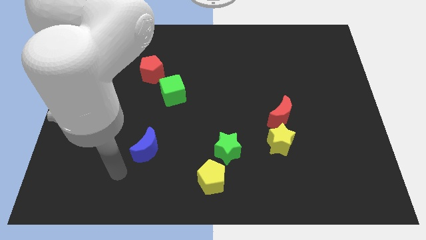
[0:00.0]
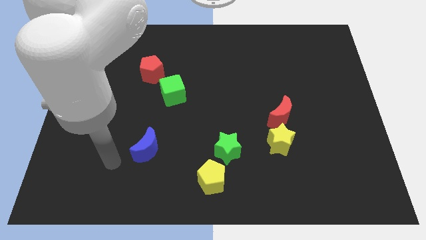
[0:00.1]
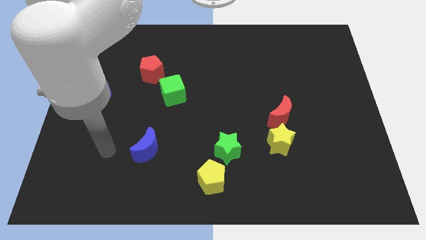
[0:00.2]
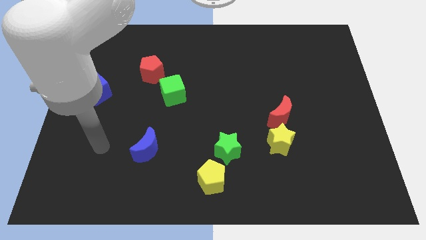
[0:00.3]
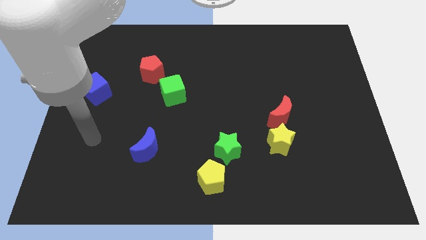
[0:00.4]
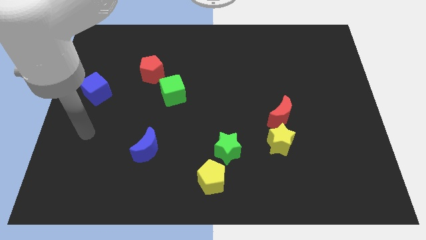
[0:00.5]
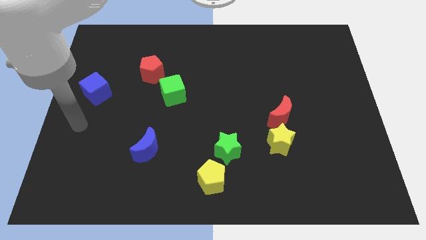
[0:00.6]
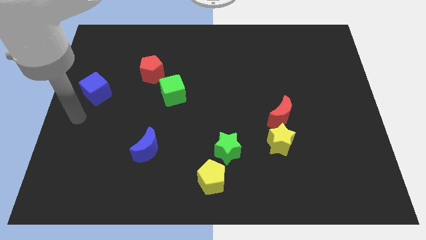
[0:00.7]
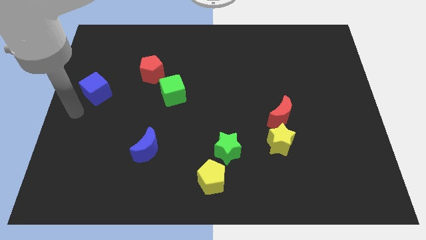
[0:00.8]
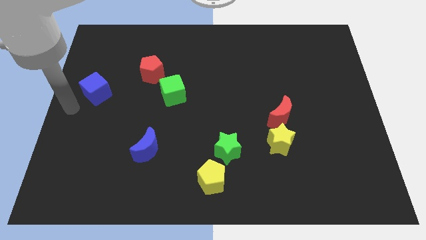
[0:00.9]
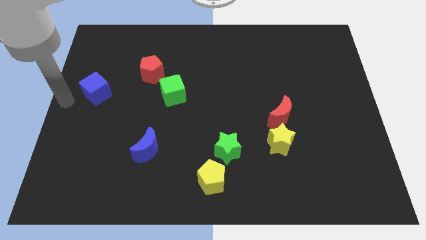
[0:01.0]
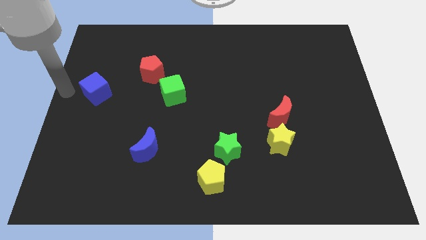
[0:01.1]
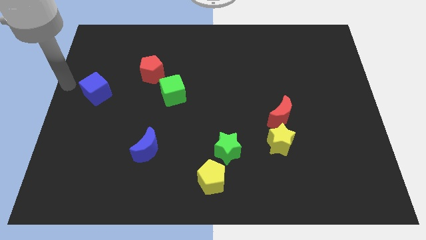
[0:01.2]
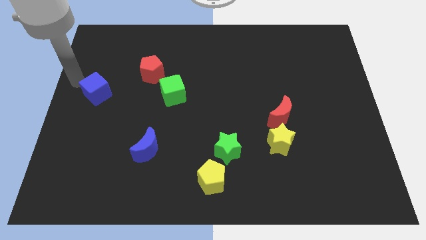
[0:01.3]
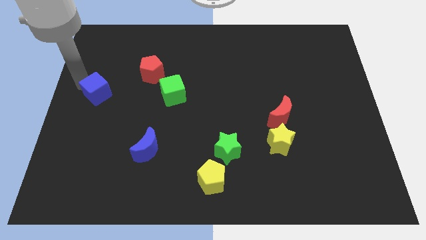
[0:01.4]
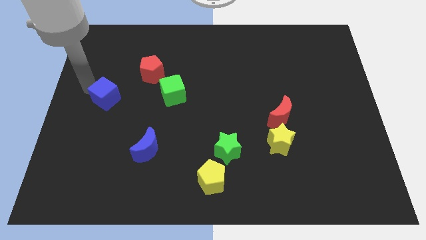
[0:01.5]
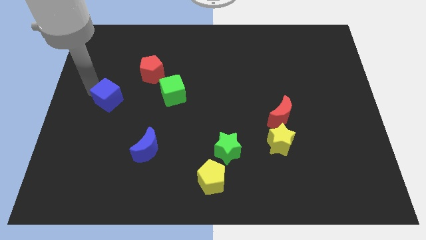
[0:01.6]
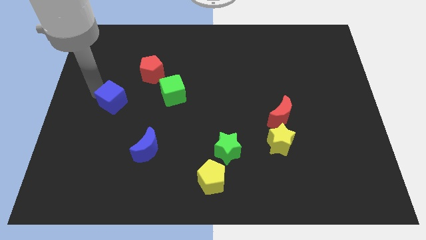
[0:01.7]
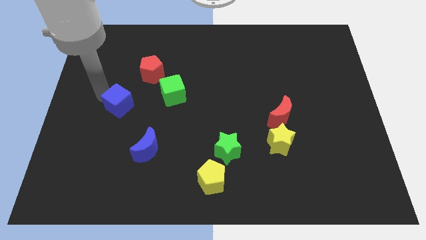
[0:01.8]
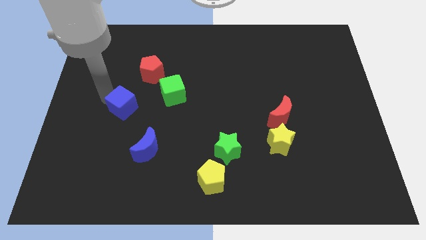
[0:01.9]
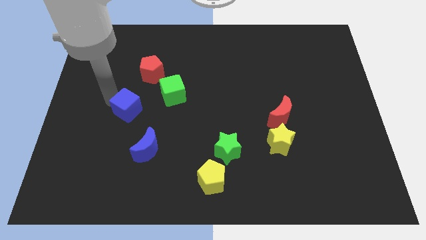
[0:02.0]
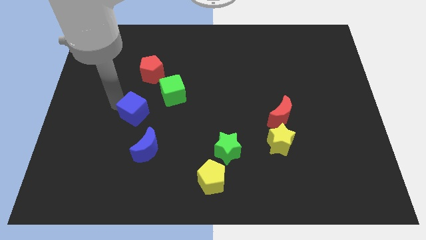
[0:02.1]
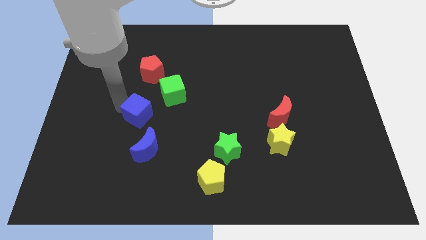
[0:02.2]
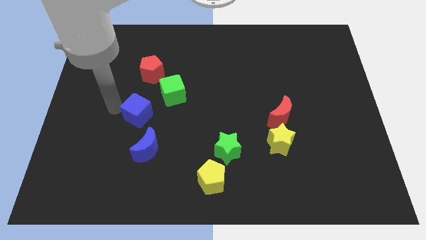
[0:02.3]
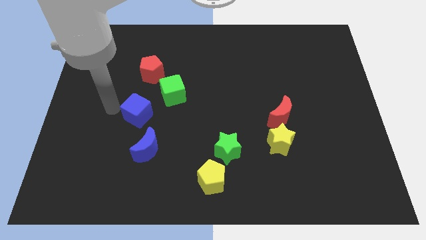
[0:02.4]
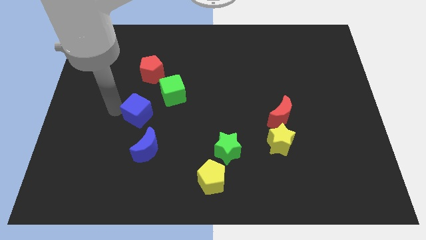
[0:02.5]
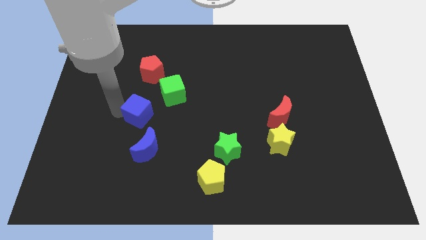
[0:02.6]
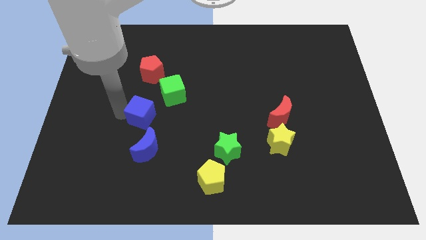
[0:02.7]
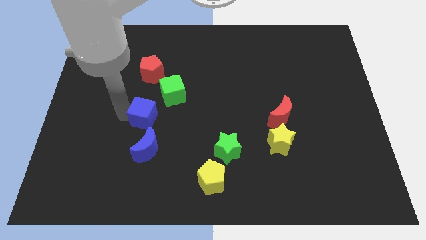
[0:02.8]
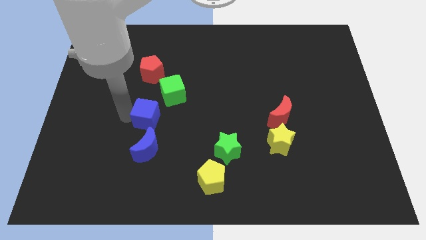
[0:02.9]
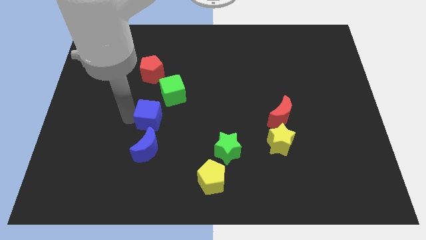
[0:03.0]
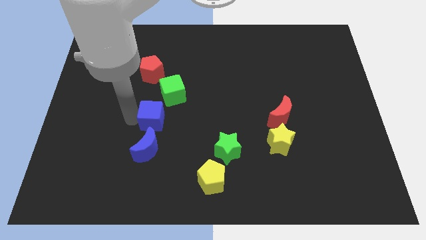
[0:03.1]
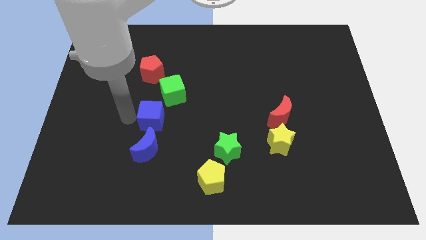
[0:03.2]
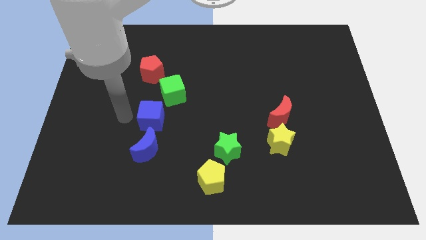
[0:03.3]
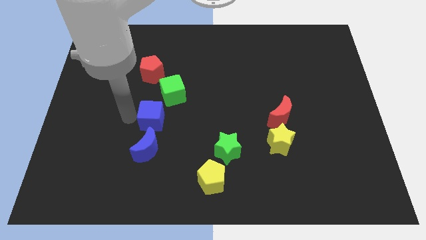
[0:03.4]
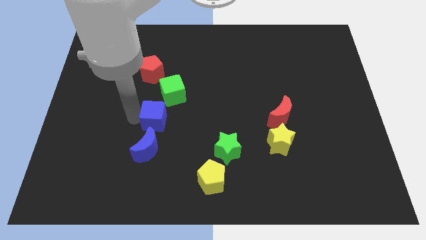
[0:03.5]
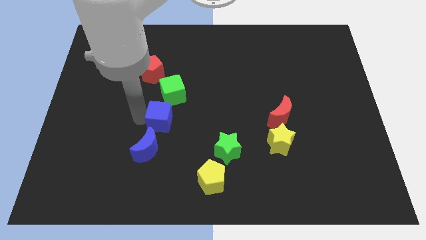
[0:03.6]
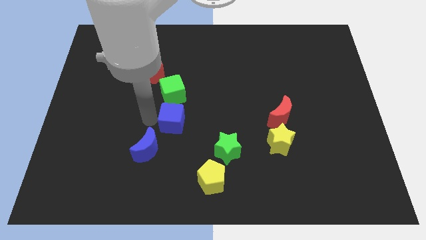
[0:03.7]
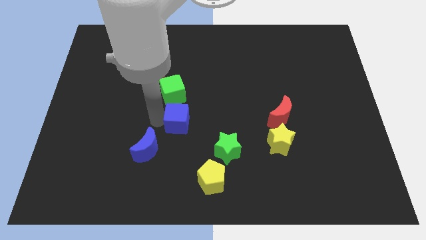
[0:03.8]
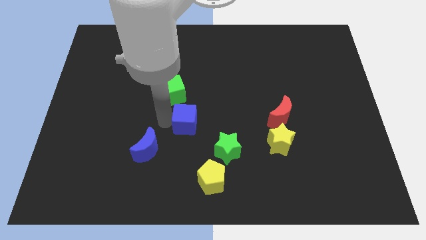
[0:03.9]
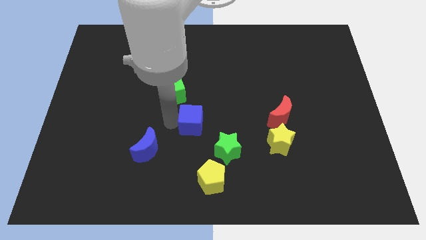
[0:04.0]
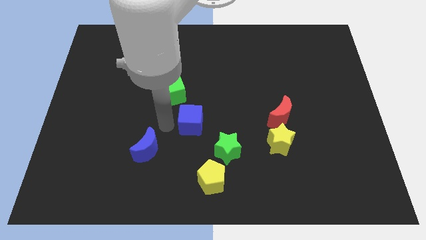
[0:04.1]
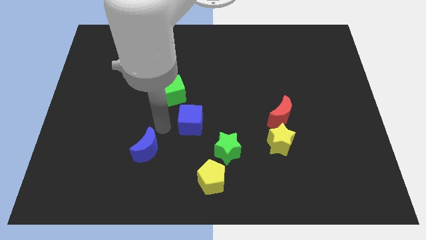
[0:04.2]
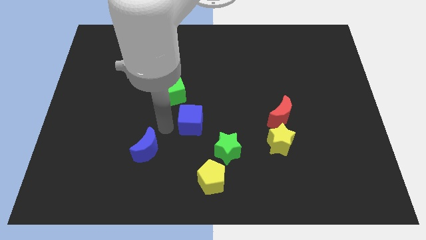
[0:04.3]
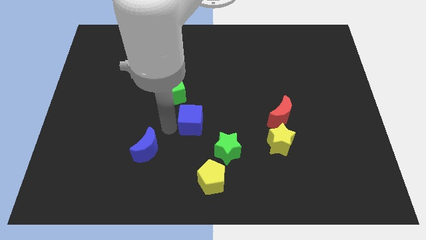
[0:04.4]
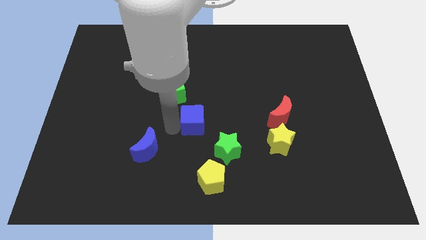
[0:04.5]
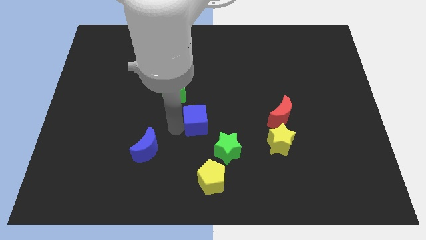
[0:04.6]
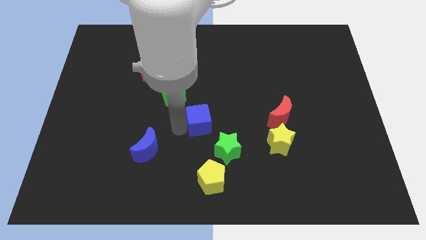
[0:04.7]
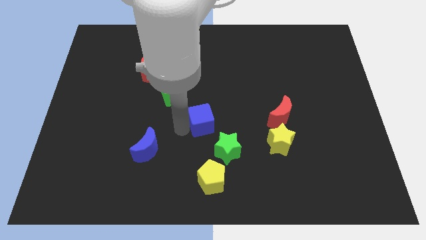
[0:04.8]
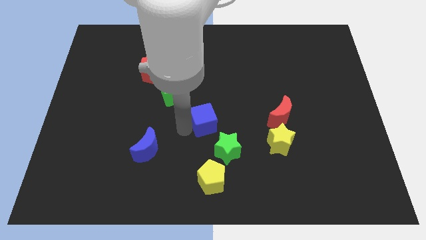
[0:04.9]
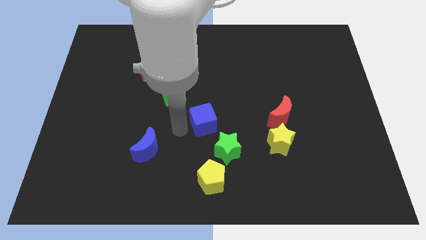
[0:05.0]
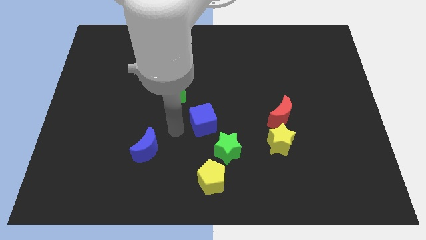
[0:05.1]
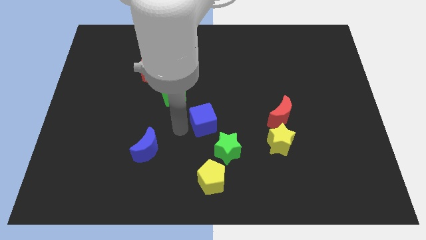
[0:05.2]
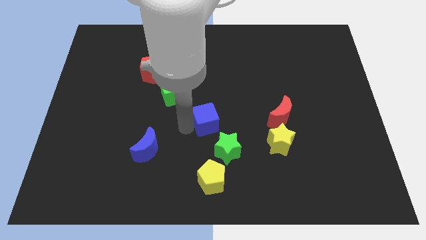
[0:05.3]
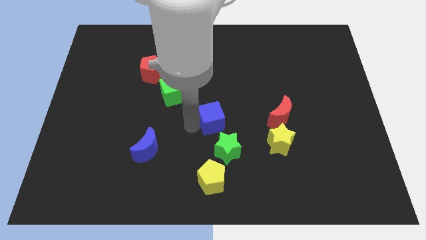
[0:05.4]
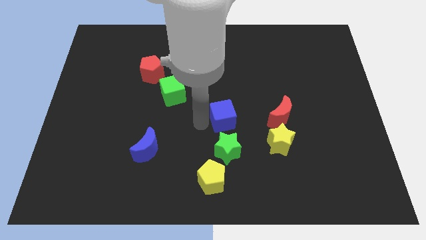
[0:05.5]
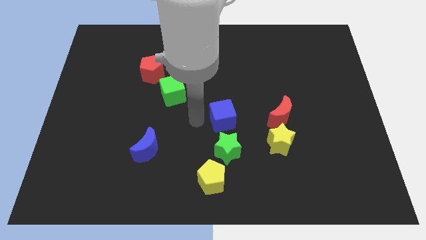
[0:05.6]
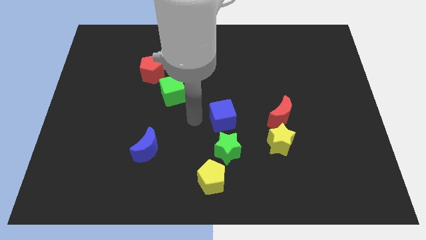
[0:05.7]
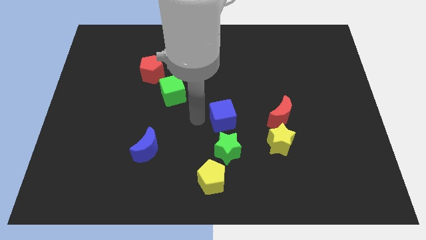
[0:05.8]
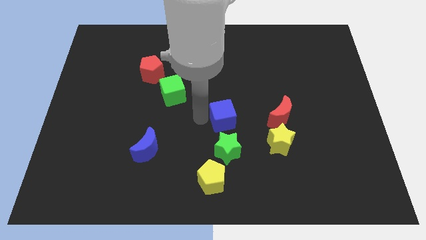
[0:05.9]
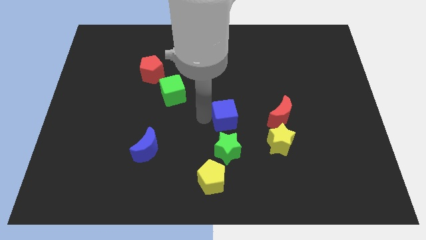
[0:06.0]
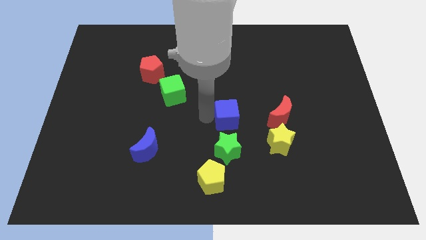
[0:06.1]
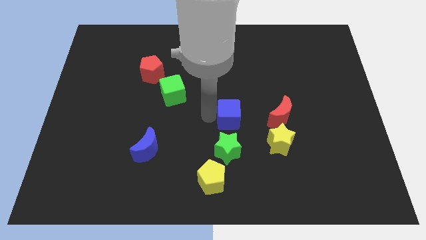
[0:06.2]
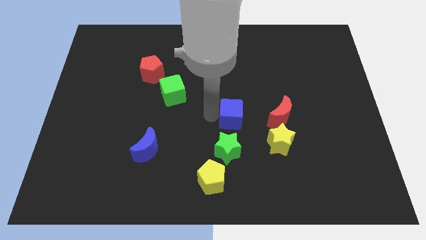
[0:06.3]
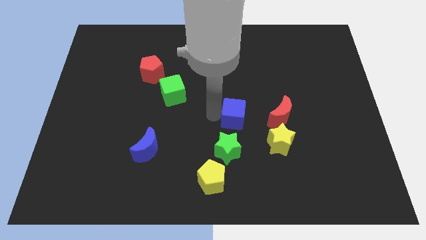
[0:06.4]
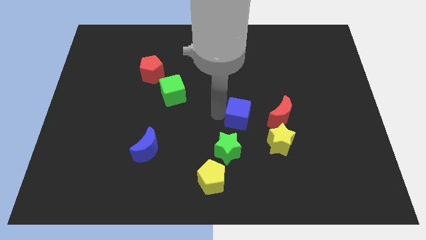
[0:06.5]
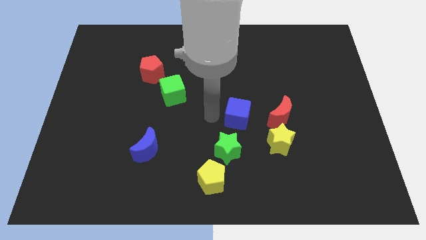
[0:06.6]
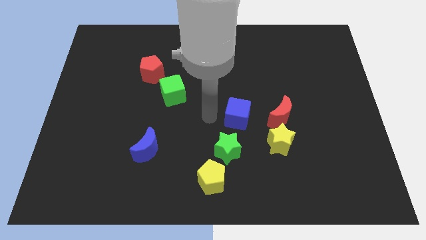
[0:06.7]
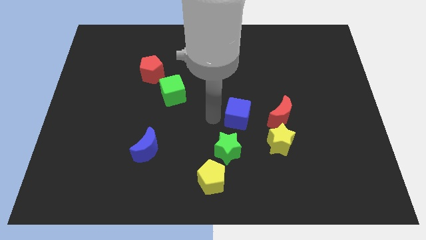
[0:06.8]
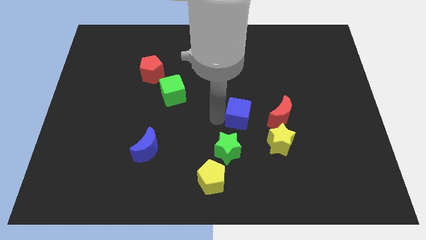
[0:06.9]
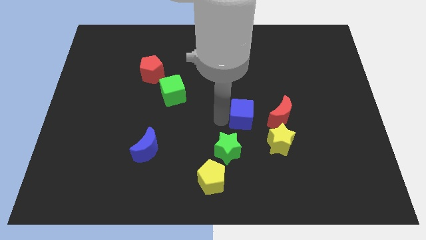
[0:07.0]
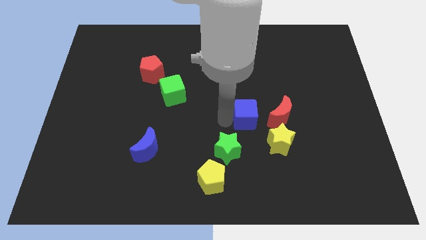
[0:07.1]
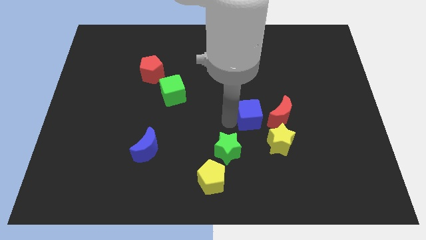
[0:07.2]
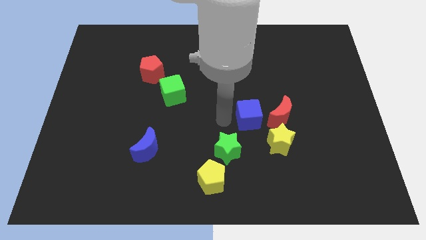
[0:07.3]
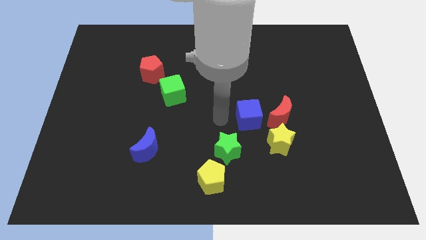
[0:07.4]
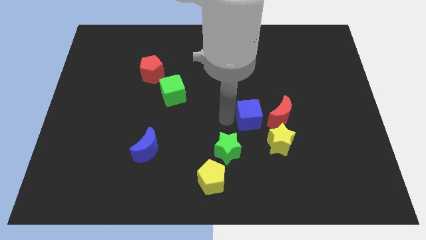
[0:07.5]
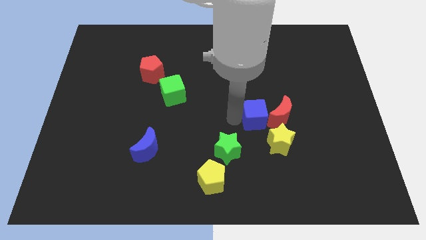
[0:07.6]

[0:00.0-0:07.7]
move the blue cube to the red moon
